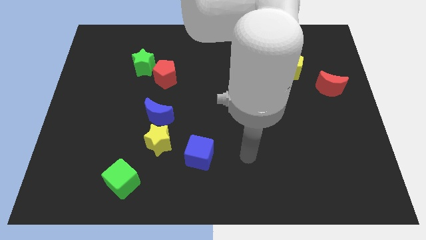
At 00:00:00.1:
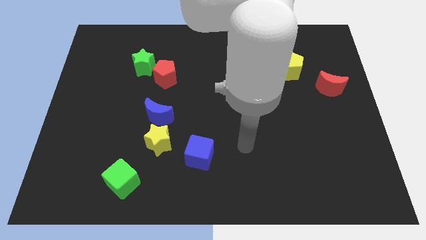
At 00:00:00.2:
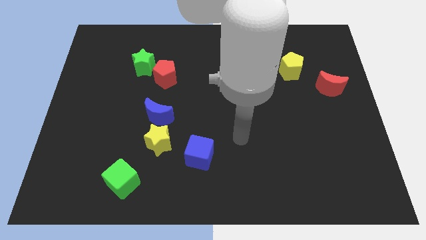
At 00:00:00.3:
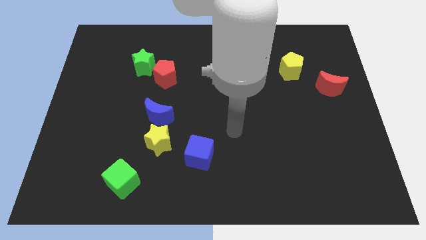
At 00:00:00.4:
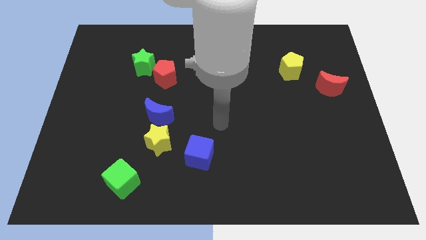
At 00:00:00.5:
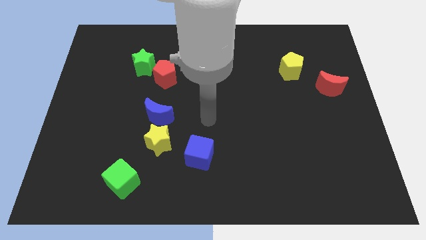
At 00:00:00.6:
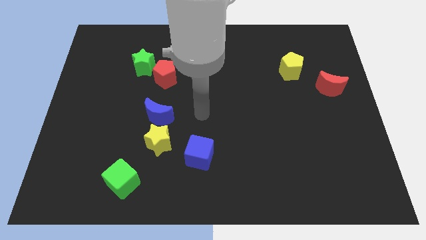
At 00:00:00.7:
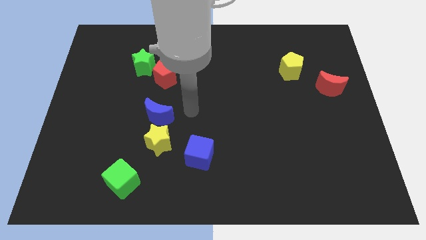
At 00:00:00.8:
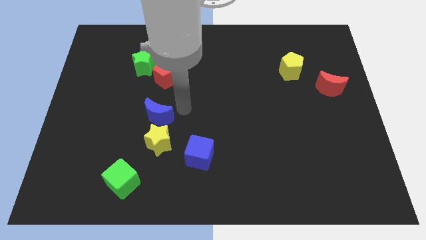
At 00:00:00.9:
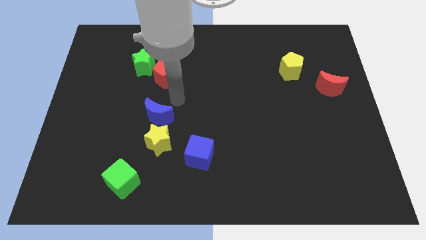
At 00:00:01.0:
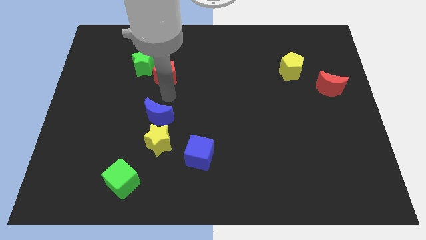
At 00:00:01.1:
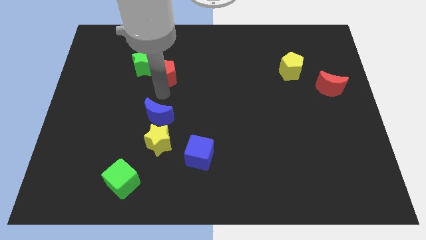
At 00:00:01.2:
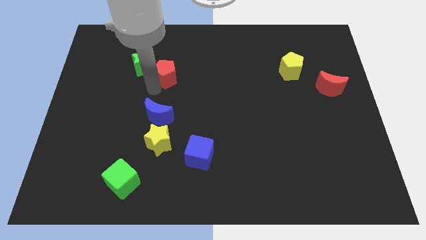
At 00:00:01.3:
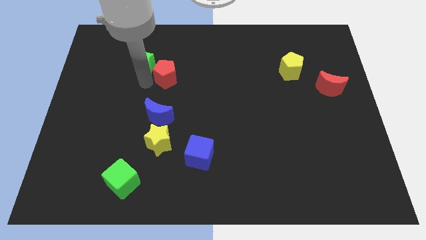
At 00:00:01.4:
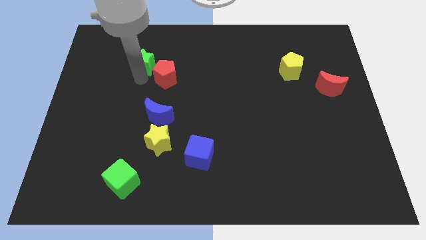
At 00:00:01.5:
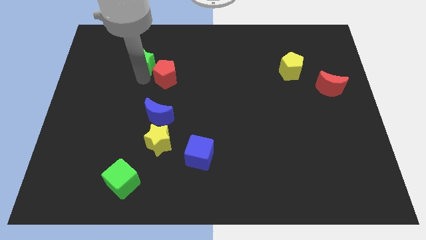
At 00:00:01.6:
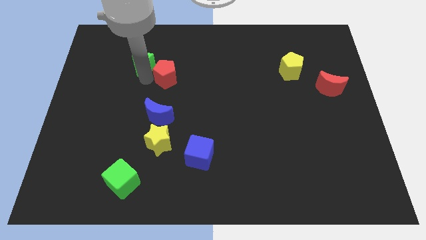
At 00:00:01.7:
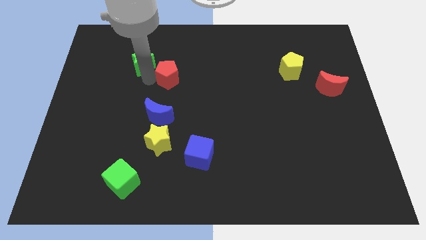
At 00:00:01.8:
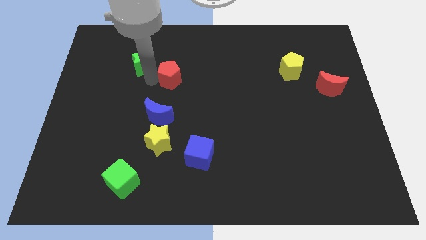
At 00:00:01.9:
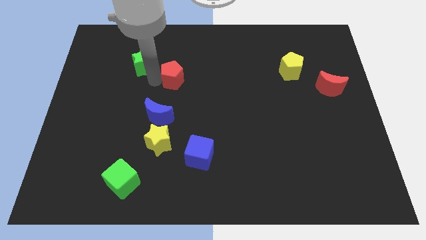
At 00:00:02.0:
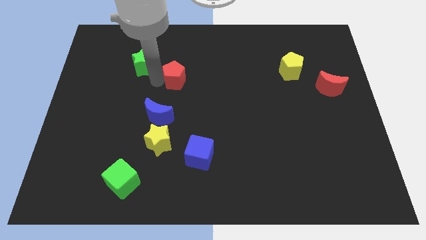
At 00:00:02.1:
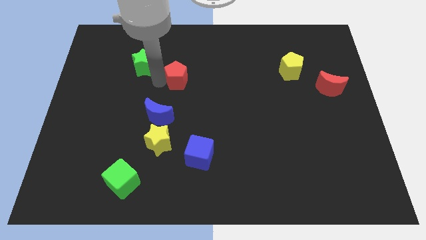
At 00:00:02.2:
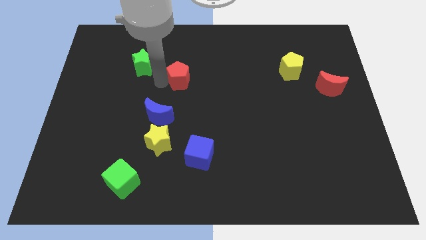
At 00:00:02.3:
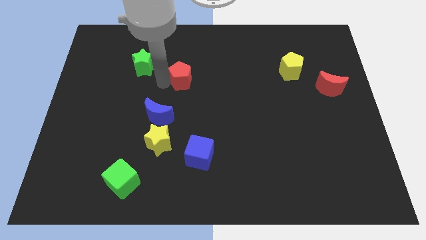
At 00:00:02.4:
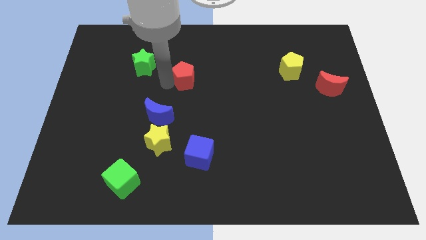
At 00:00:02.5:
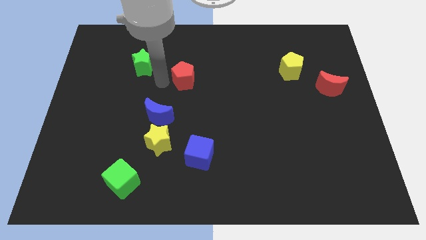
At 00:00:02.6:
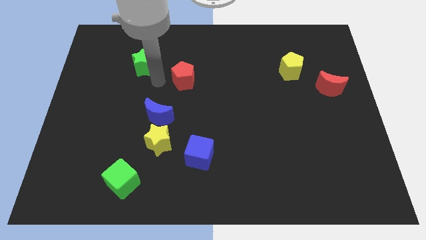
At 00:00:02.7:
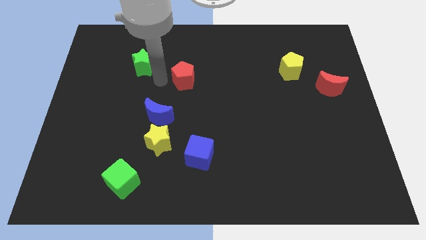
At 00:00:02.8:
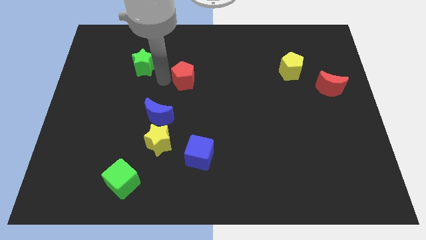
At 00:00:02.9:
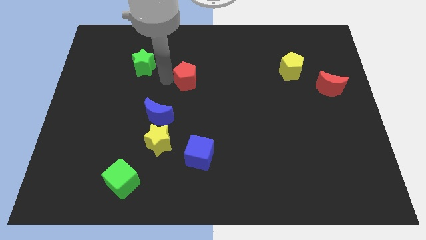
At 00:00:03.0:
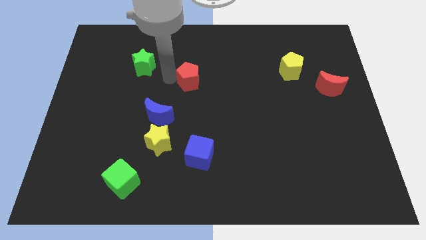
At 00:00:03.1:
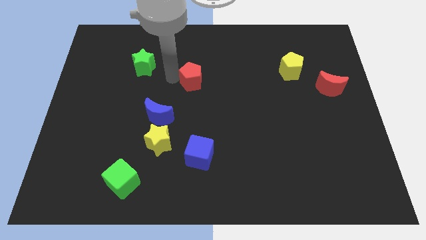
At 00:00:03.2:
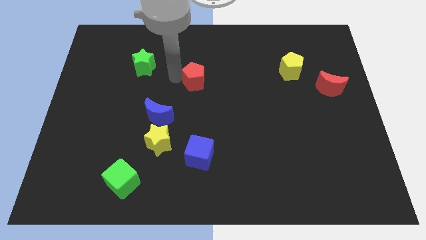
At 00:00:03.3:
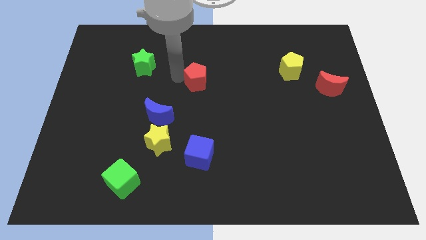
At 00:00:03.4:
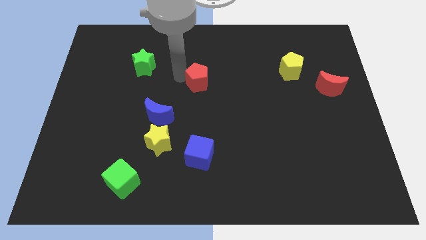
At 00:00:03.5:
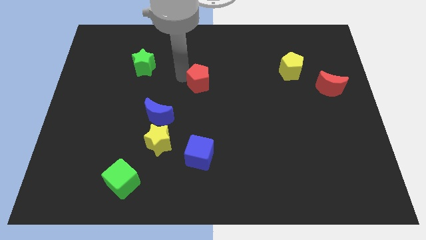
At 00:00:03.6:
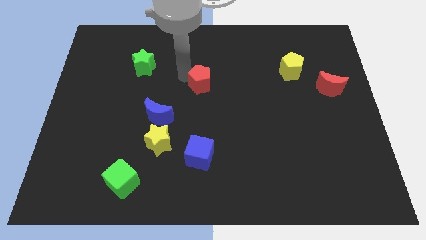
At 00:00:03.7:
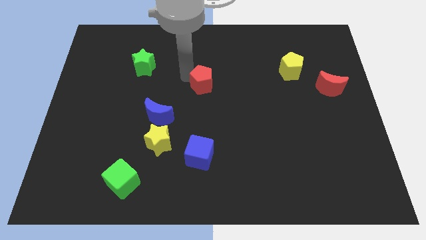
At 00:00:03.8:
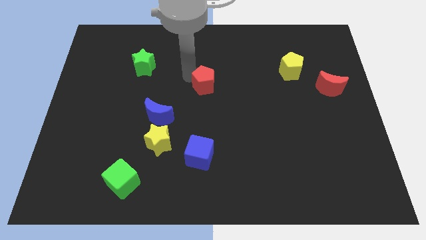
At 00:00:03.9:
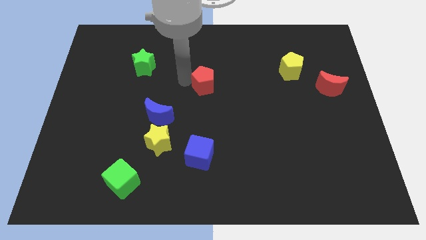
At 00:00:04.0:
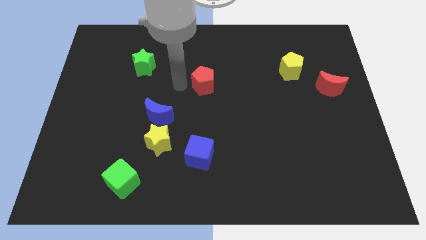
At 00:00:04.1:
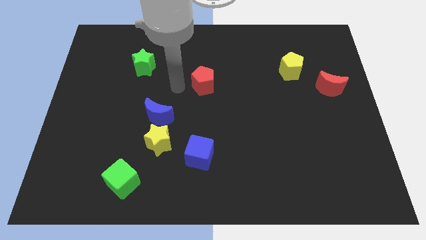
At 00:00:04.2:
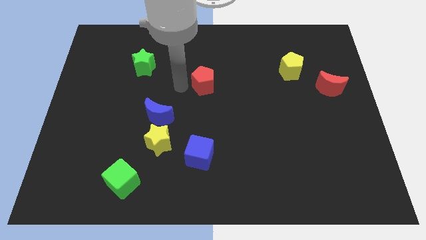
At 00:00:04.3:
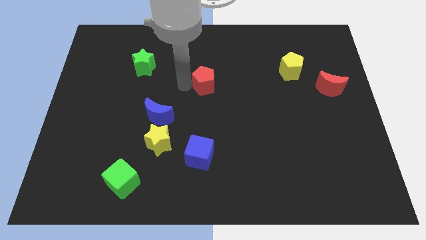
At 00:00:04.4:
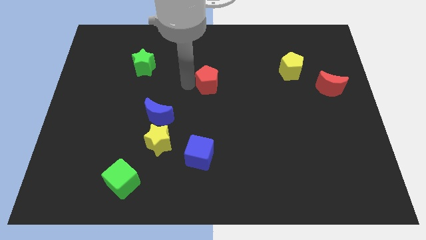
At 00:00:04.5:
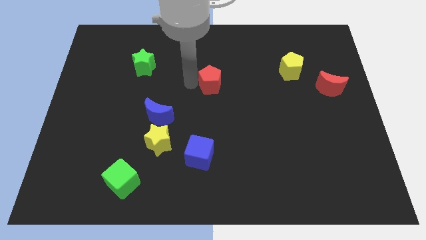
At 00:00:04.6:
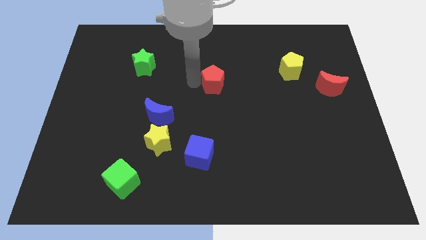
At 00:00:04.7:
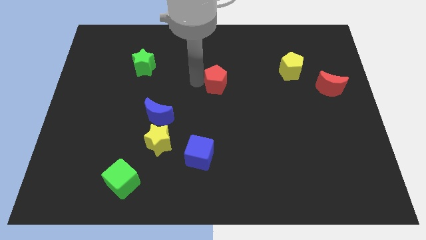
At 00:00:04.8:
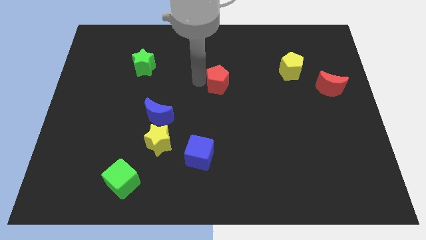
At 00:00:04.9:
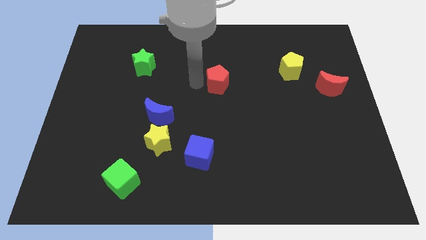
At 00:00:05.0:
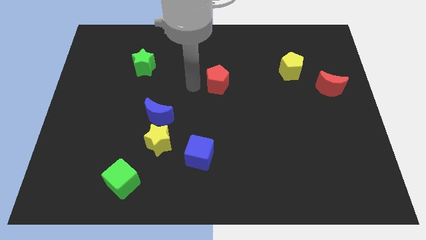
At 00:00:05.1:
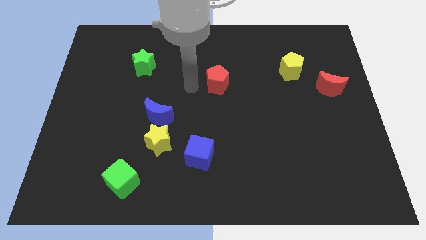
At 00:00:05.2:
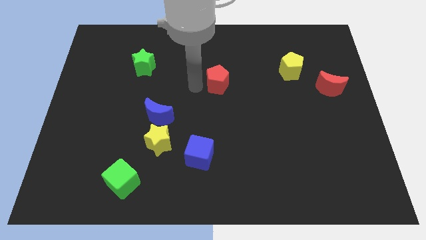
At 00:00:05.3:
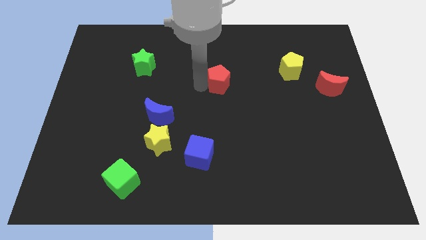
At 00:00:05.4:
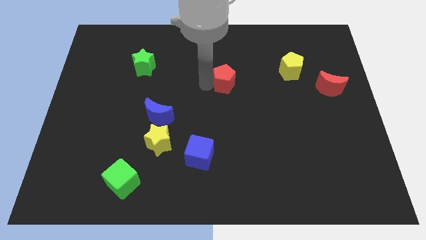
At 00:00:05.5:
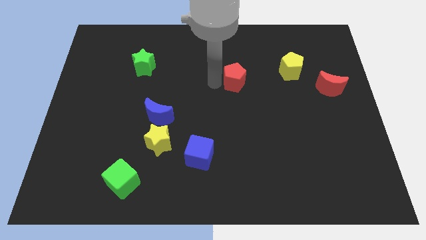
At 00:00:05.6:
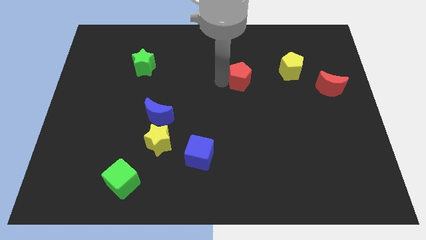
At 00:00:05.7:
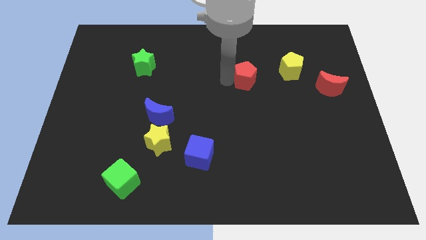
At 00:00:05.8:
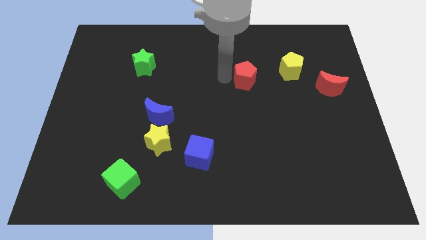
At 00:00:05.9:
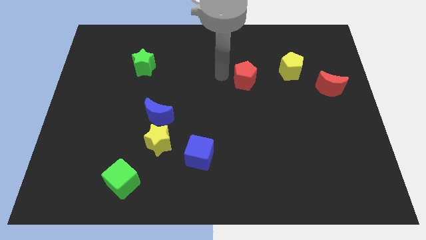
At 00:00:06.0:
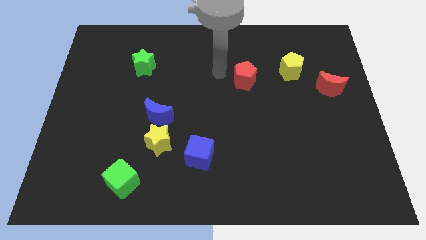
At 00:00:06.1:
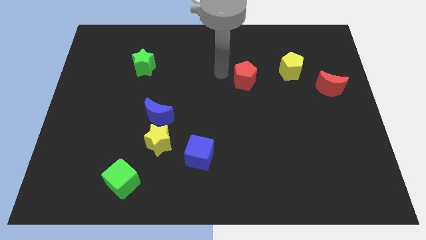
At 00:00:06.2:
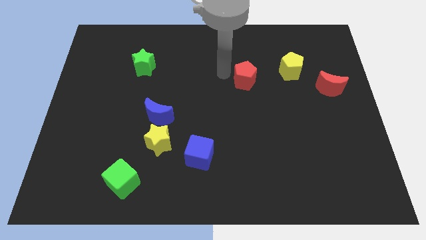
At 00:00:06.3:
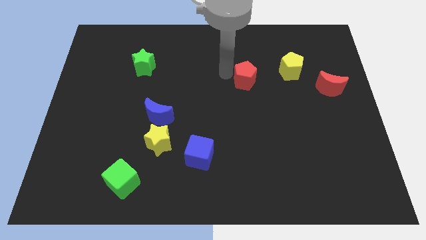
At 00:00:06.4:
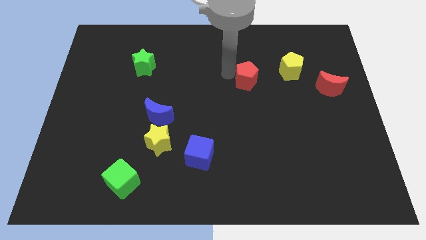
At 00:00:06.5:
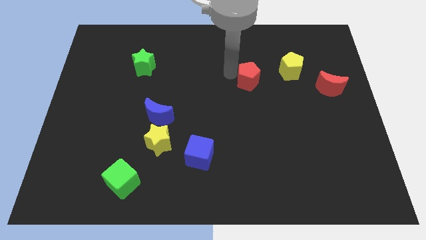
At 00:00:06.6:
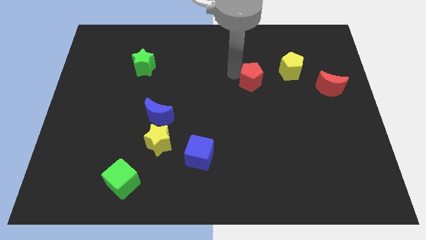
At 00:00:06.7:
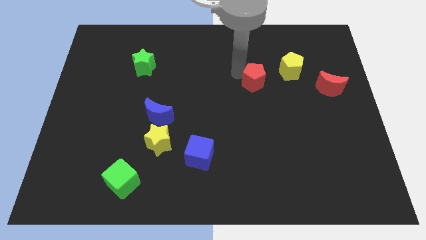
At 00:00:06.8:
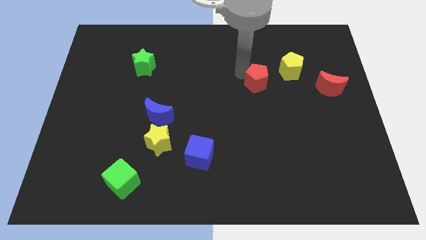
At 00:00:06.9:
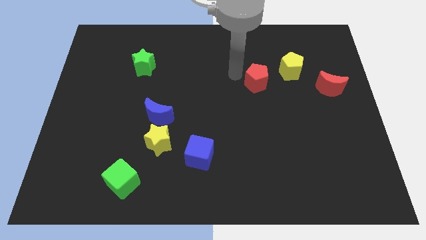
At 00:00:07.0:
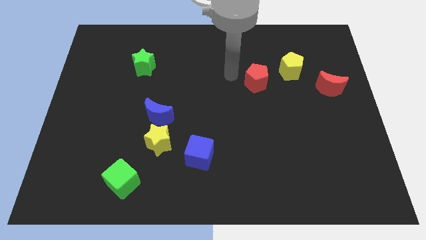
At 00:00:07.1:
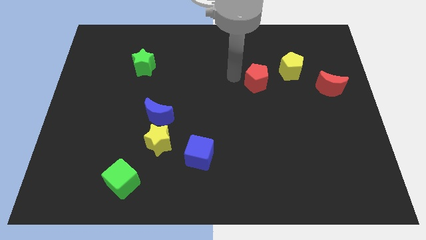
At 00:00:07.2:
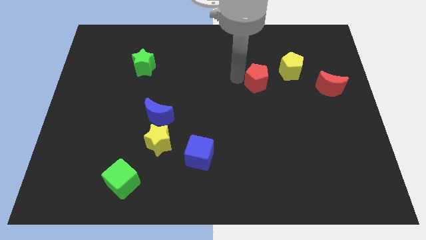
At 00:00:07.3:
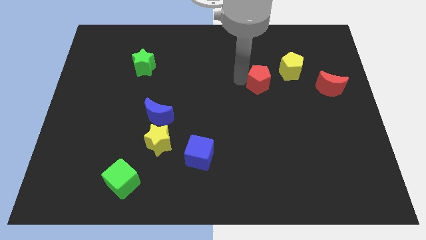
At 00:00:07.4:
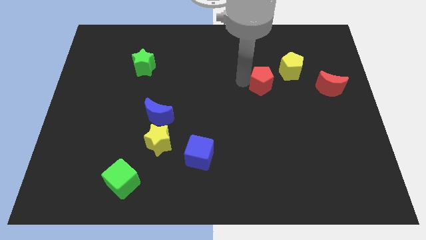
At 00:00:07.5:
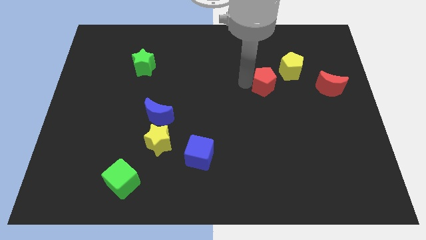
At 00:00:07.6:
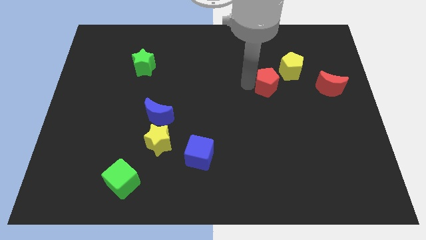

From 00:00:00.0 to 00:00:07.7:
slide the red pentagon just left of the red moon
